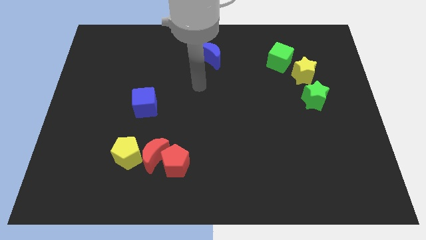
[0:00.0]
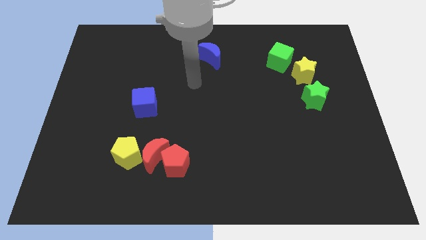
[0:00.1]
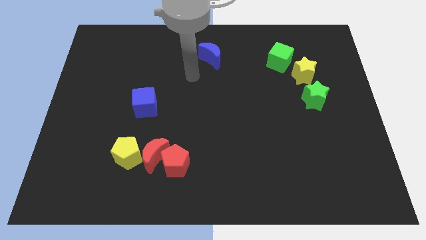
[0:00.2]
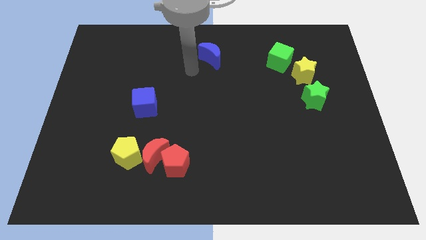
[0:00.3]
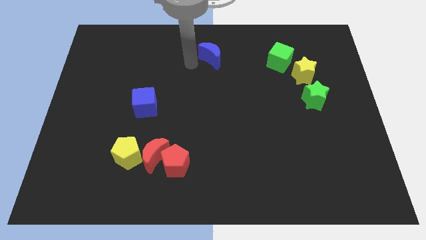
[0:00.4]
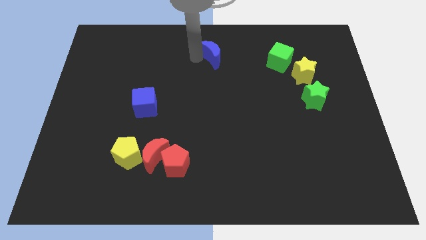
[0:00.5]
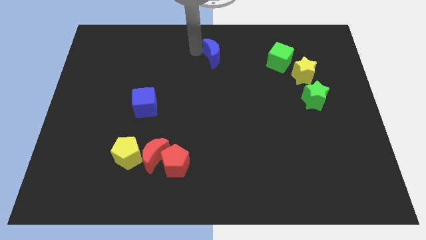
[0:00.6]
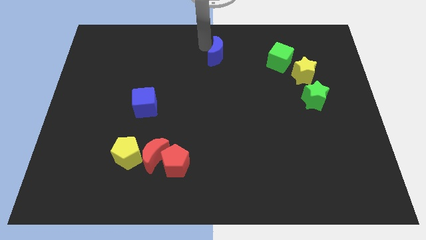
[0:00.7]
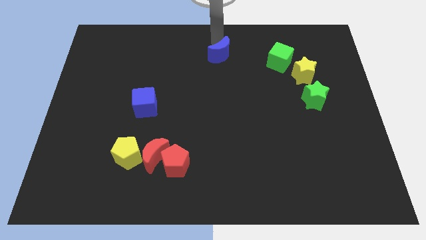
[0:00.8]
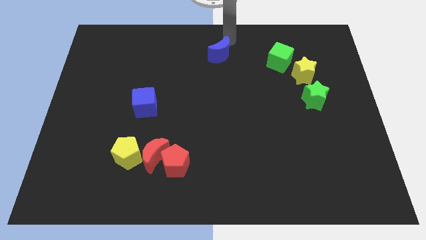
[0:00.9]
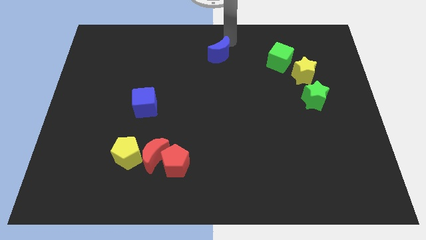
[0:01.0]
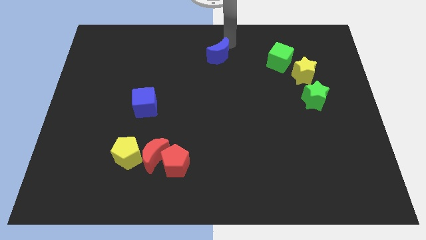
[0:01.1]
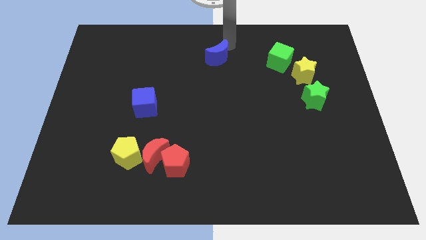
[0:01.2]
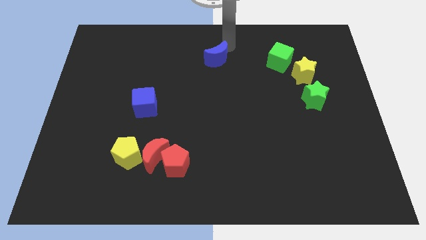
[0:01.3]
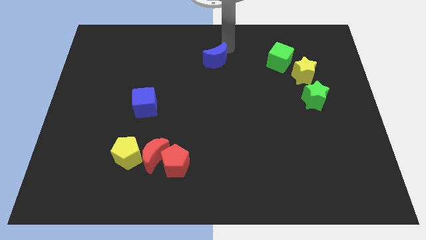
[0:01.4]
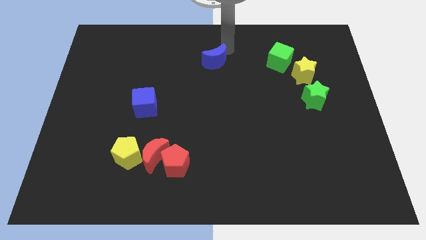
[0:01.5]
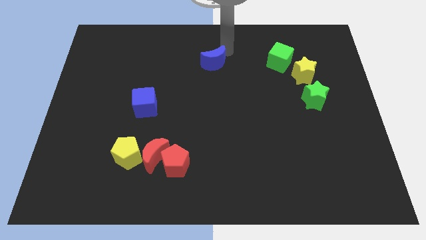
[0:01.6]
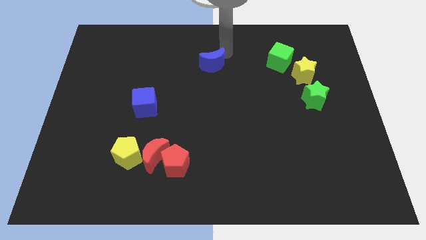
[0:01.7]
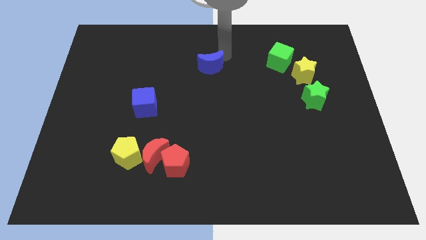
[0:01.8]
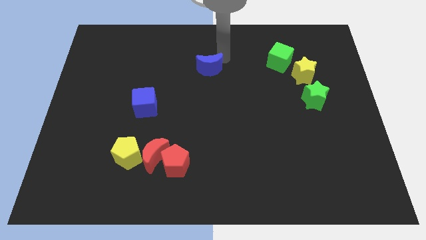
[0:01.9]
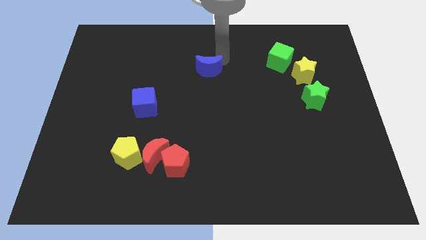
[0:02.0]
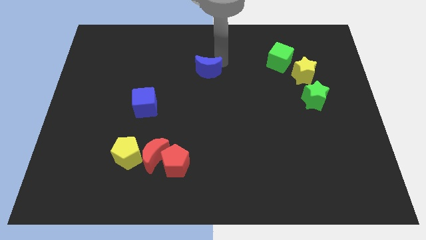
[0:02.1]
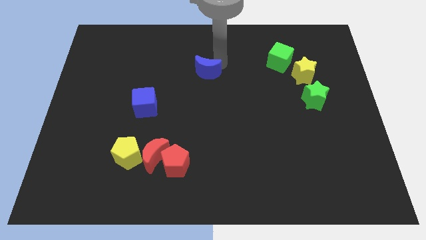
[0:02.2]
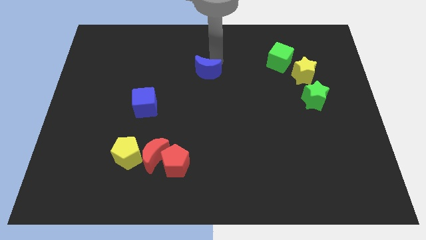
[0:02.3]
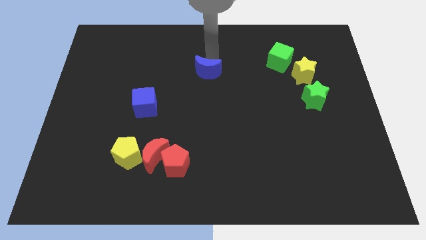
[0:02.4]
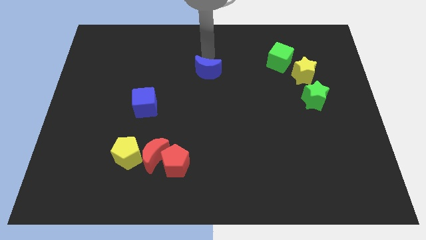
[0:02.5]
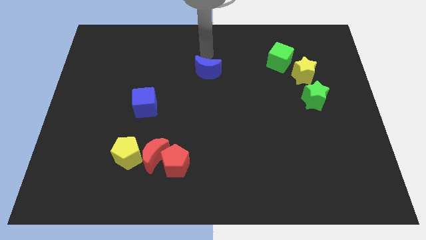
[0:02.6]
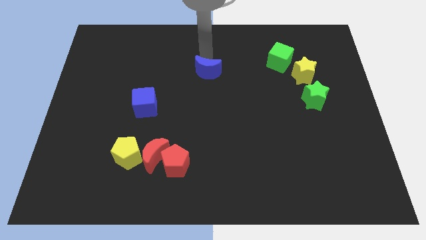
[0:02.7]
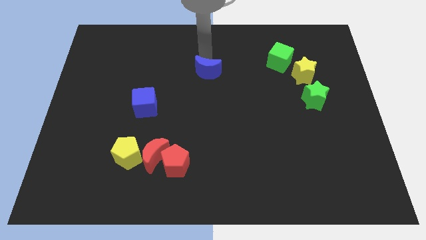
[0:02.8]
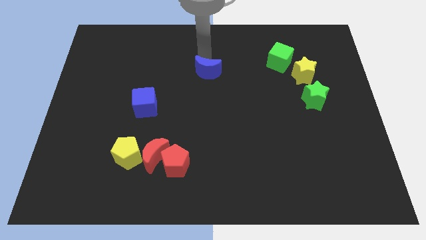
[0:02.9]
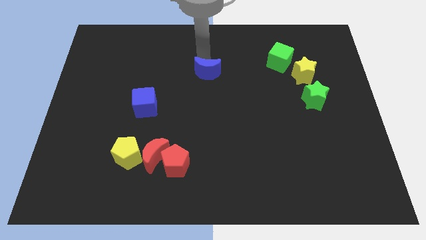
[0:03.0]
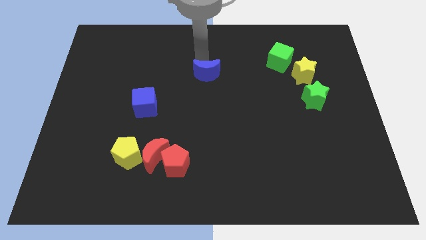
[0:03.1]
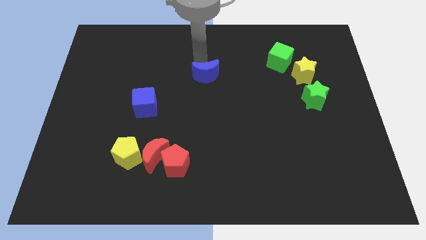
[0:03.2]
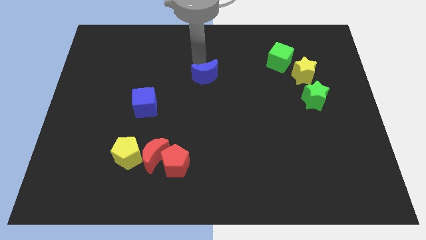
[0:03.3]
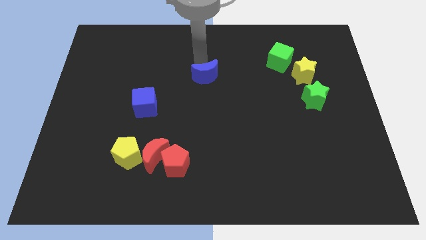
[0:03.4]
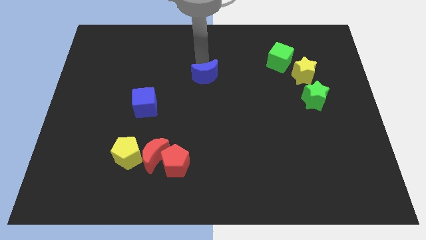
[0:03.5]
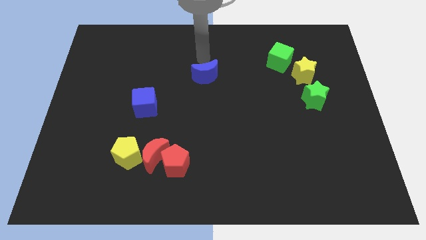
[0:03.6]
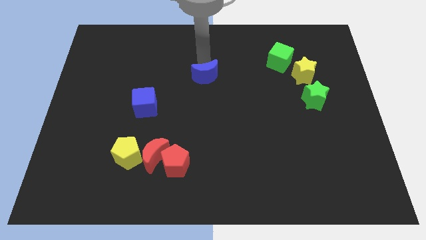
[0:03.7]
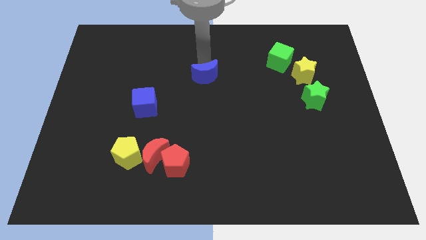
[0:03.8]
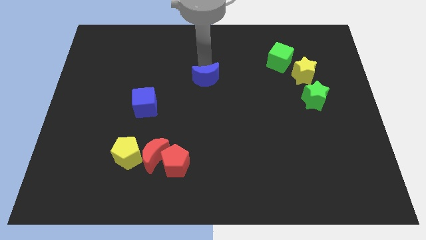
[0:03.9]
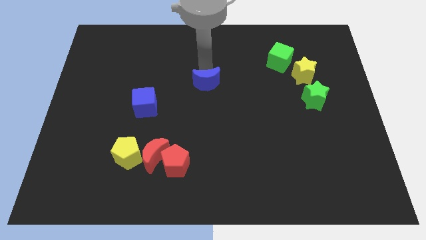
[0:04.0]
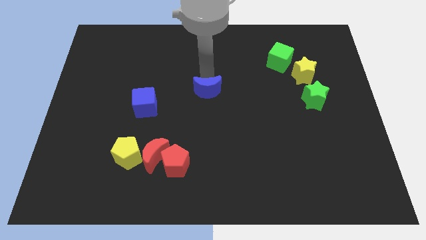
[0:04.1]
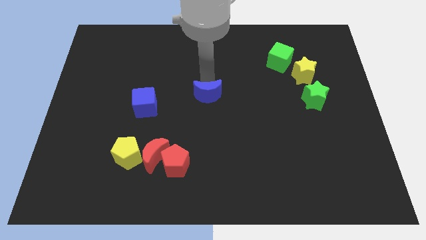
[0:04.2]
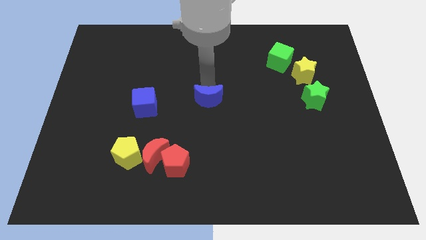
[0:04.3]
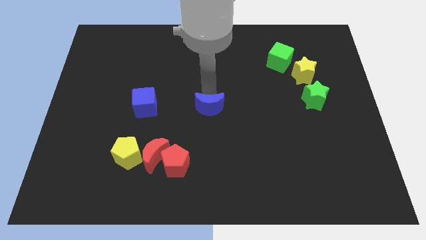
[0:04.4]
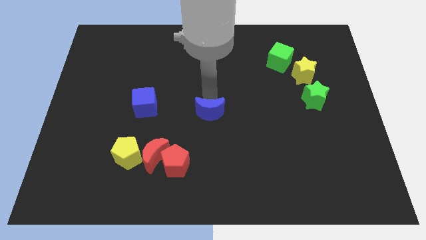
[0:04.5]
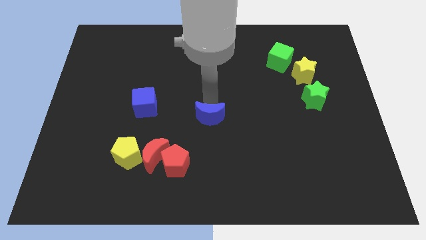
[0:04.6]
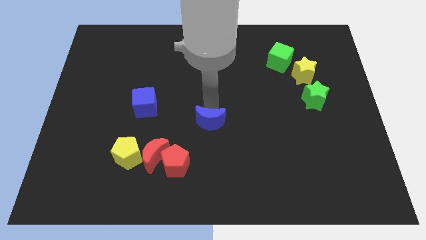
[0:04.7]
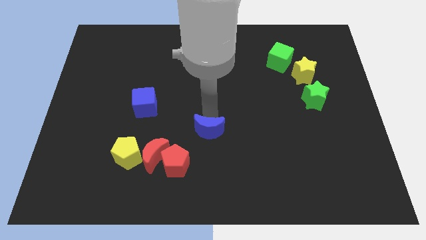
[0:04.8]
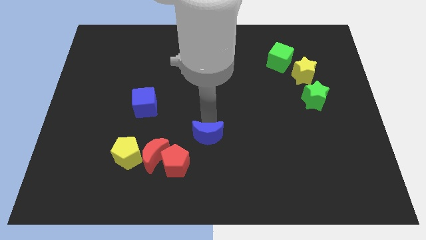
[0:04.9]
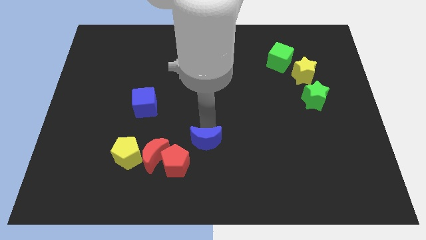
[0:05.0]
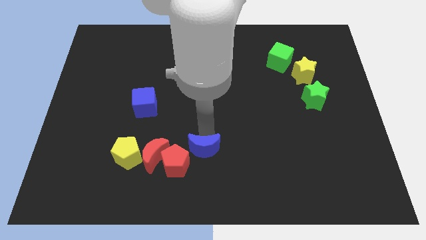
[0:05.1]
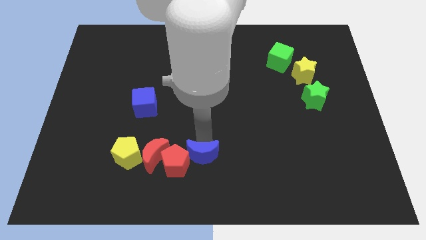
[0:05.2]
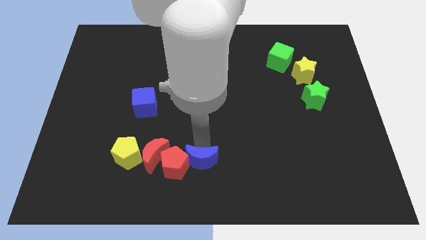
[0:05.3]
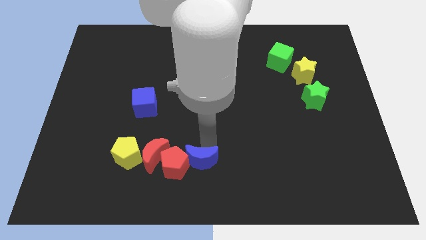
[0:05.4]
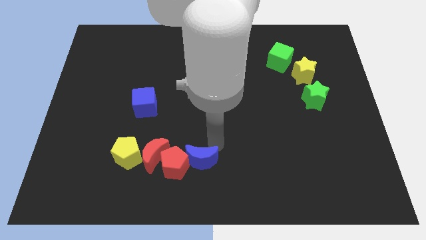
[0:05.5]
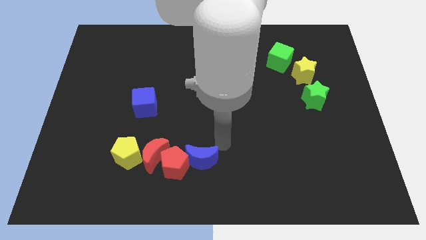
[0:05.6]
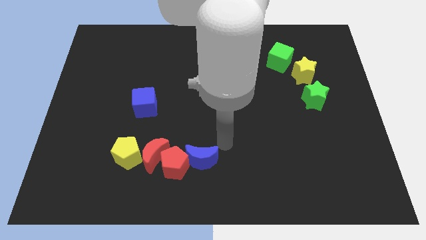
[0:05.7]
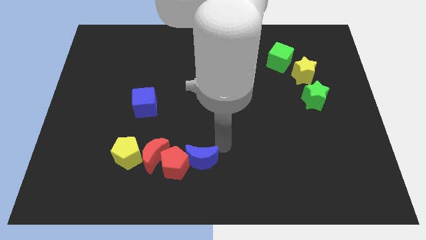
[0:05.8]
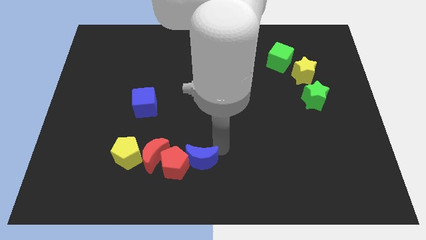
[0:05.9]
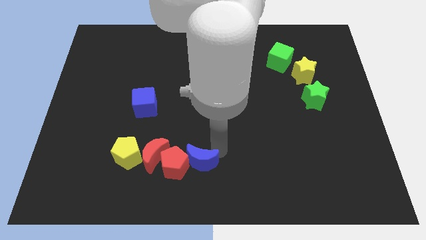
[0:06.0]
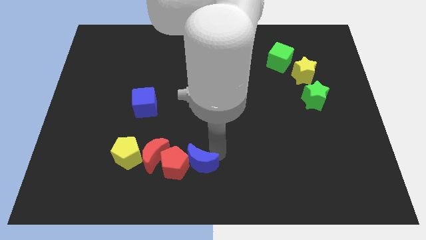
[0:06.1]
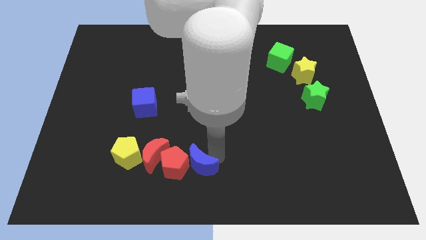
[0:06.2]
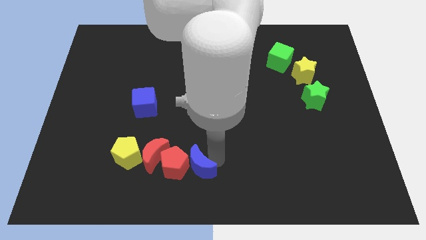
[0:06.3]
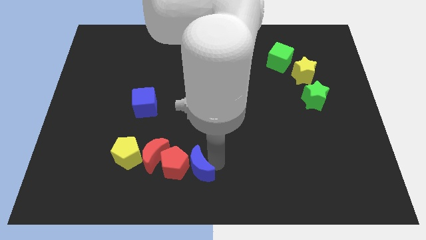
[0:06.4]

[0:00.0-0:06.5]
push the blue moon to the bottom right of the red moon
